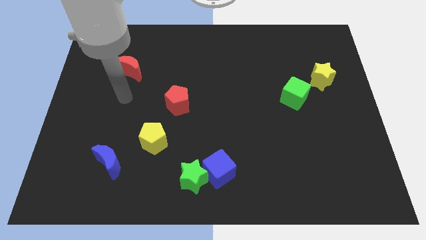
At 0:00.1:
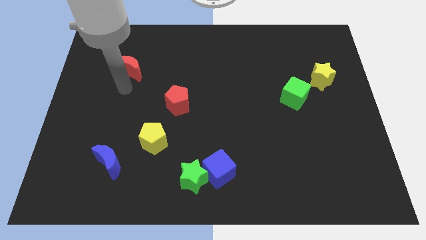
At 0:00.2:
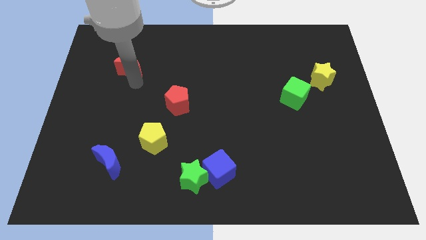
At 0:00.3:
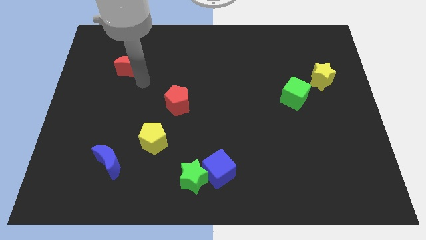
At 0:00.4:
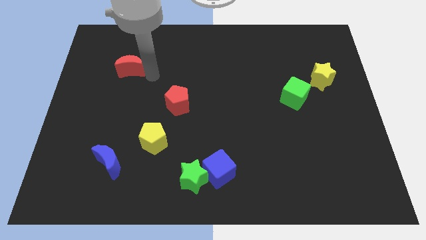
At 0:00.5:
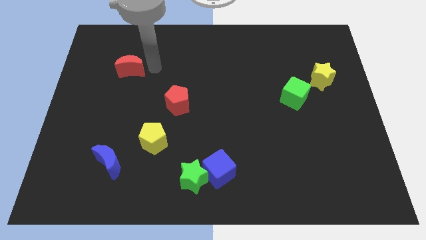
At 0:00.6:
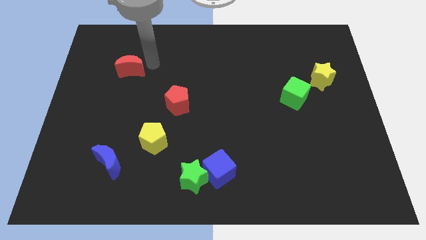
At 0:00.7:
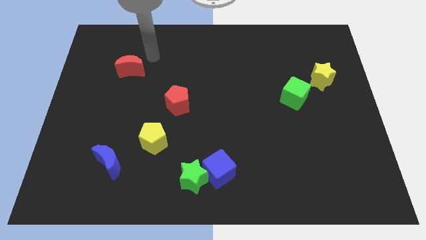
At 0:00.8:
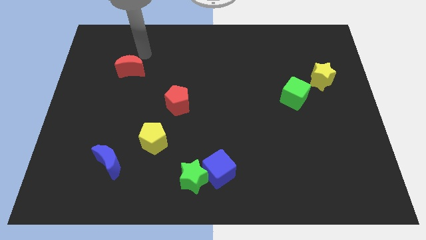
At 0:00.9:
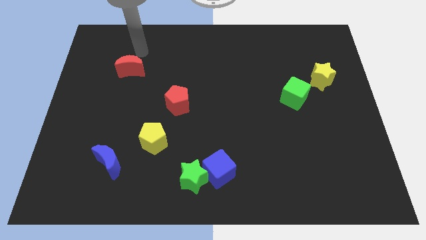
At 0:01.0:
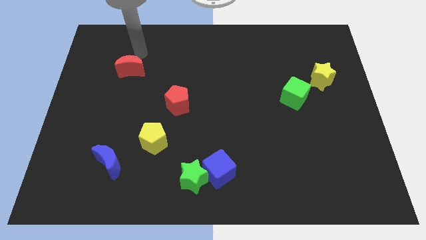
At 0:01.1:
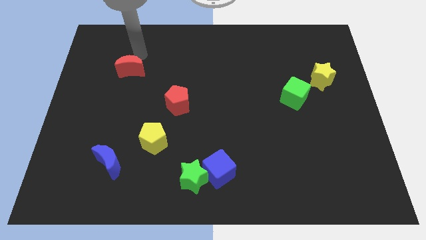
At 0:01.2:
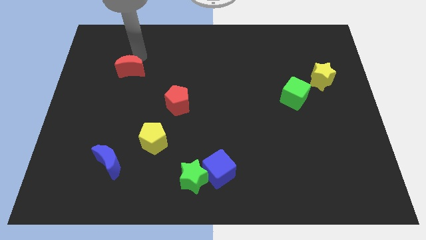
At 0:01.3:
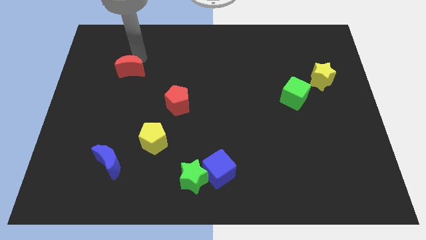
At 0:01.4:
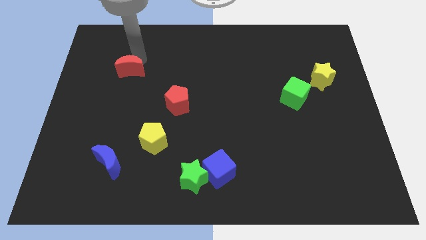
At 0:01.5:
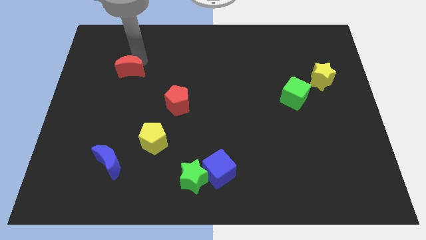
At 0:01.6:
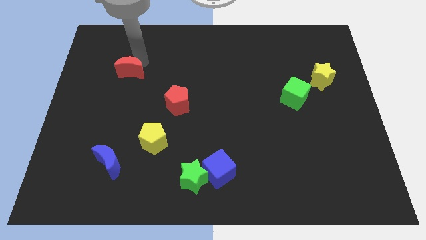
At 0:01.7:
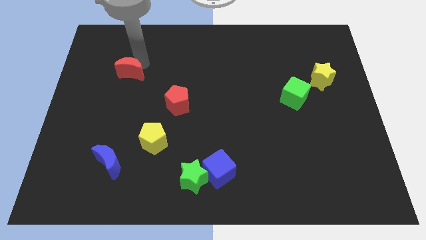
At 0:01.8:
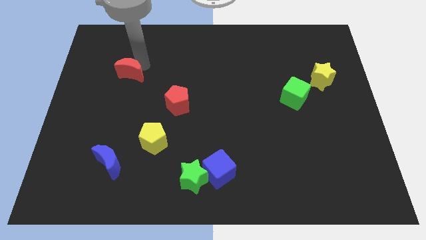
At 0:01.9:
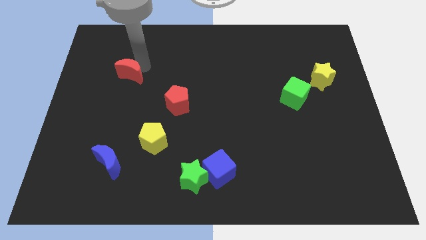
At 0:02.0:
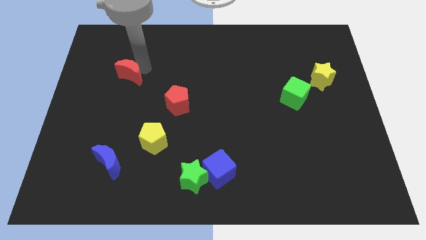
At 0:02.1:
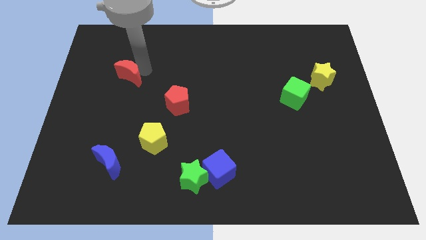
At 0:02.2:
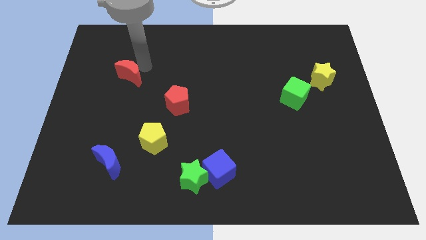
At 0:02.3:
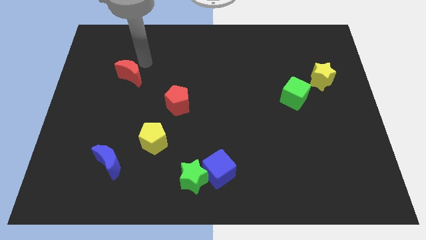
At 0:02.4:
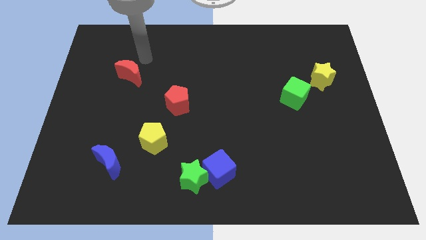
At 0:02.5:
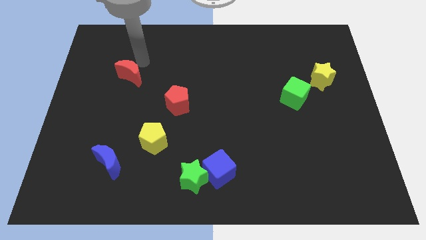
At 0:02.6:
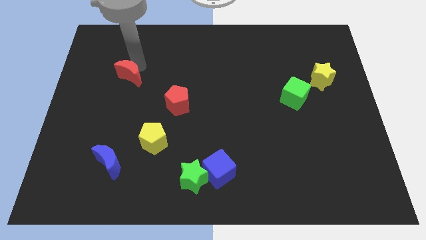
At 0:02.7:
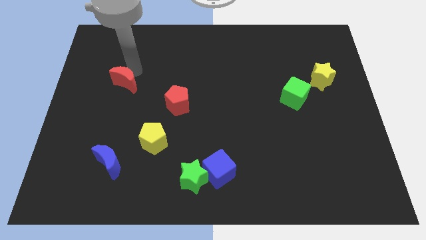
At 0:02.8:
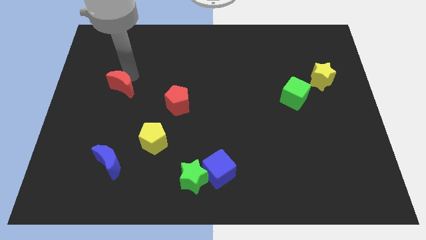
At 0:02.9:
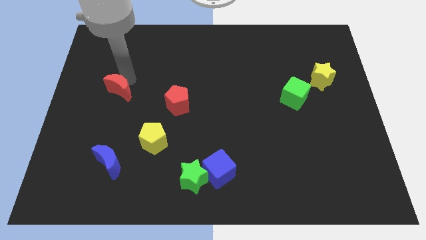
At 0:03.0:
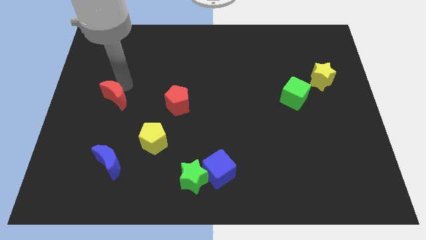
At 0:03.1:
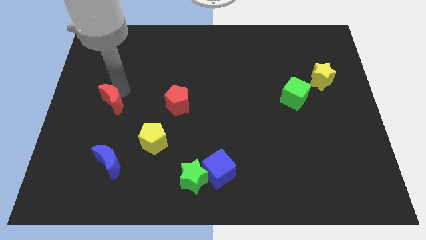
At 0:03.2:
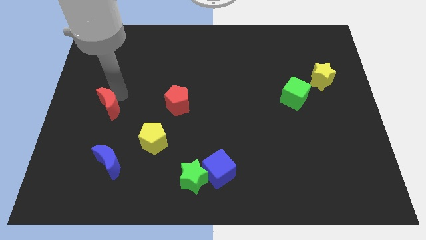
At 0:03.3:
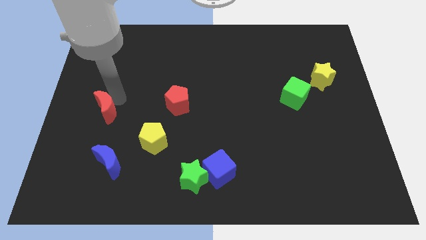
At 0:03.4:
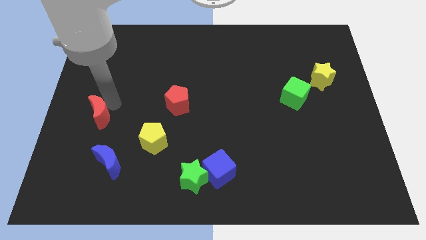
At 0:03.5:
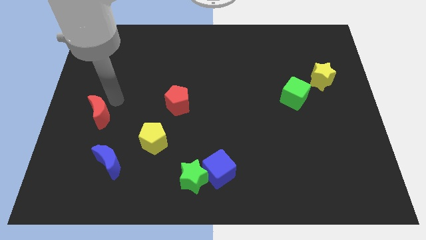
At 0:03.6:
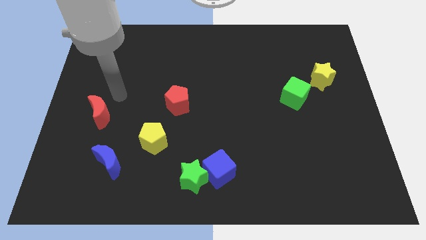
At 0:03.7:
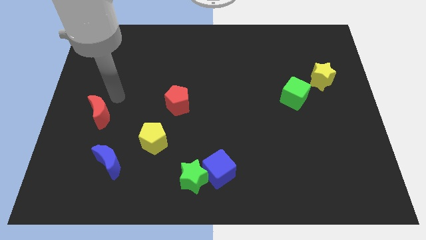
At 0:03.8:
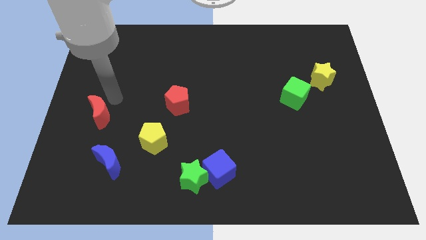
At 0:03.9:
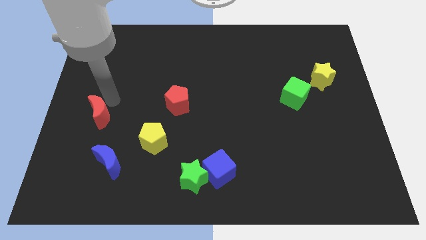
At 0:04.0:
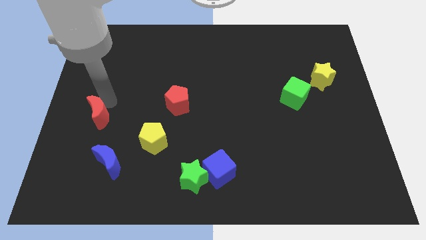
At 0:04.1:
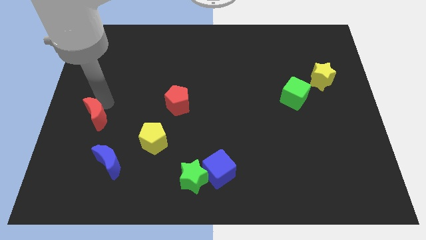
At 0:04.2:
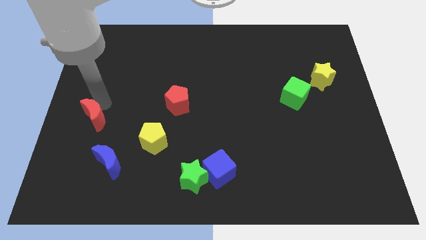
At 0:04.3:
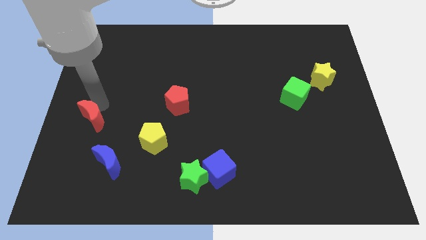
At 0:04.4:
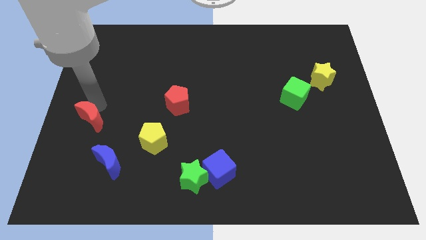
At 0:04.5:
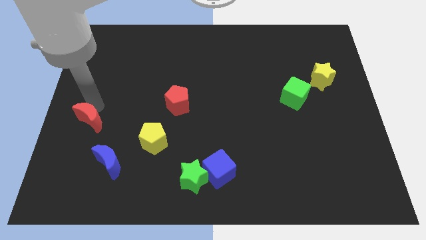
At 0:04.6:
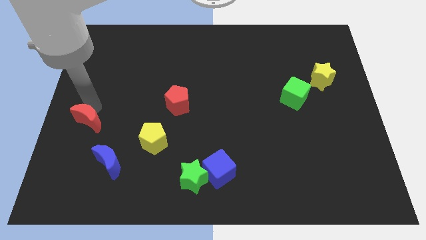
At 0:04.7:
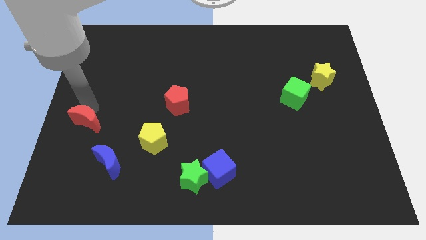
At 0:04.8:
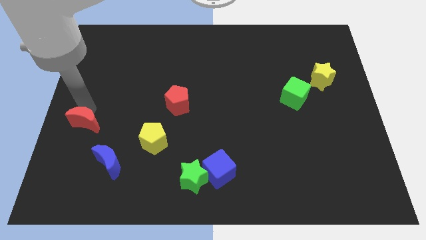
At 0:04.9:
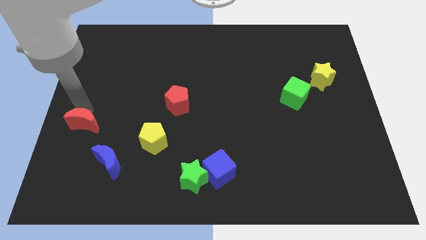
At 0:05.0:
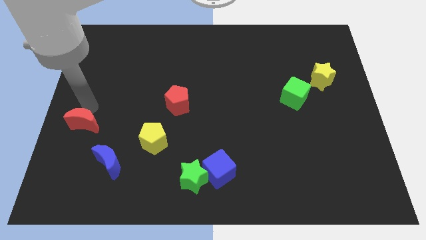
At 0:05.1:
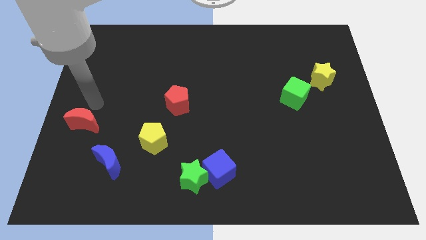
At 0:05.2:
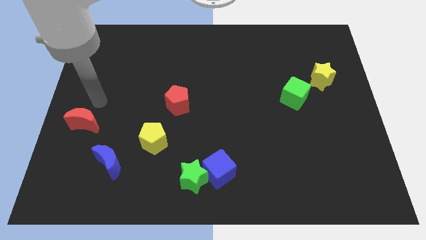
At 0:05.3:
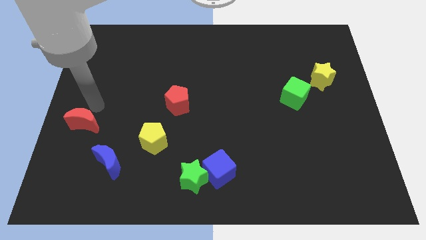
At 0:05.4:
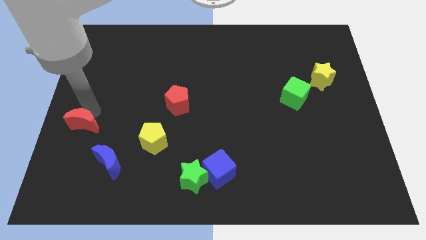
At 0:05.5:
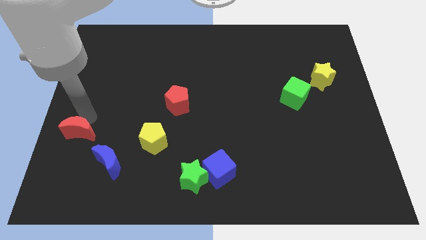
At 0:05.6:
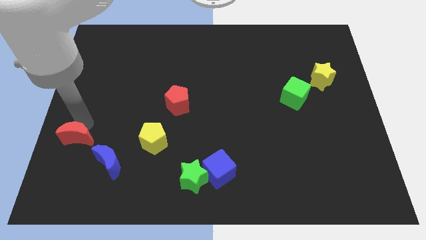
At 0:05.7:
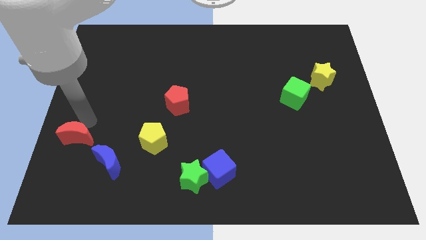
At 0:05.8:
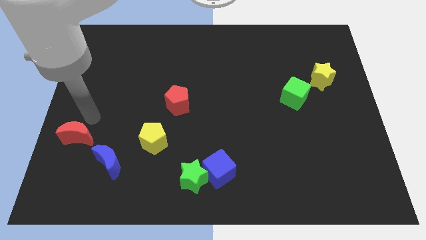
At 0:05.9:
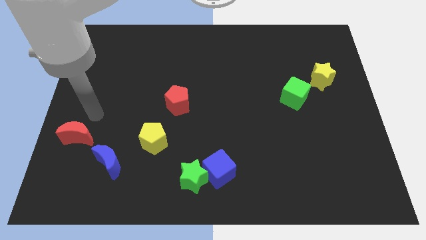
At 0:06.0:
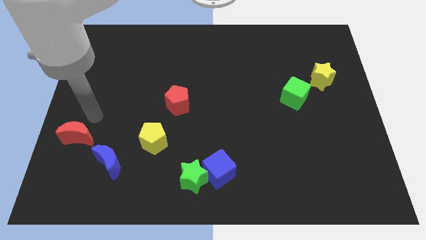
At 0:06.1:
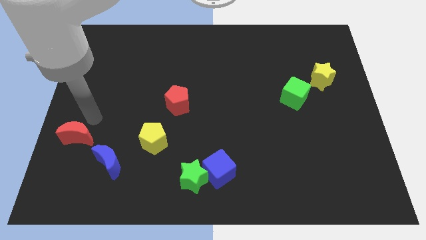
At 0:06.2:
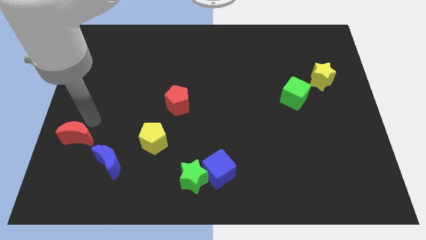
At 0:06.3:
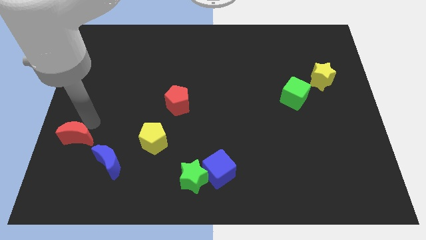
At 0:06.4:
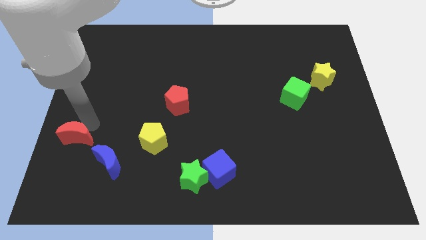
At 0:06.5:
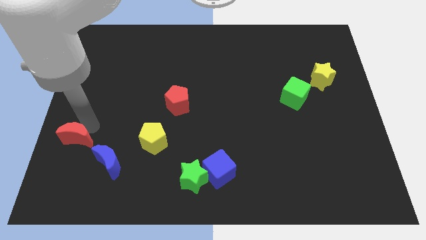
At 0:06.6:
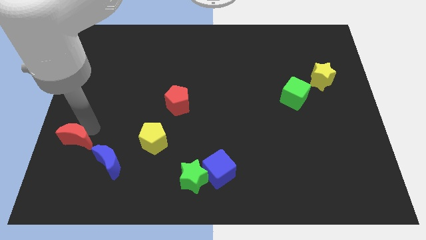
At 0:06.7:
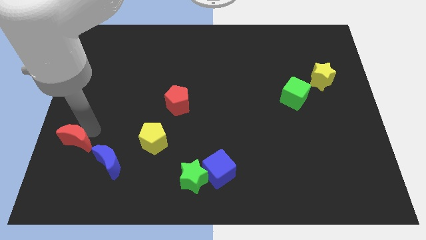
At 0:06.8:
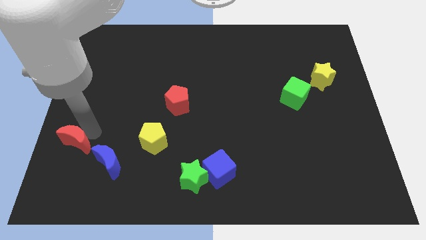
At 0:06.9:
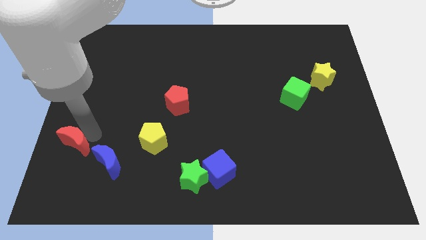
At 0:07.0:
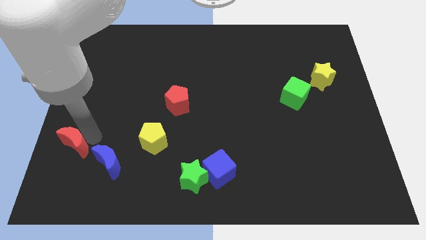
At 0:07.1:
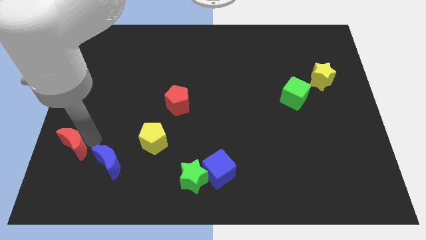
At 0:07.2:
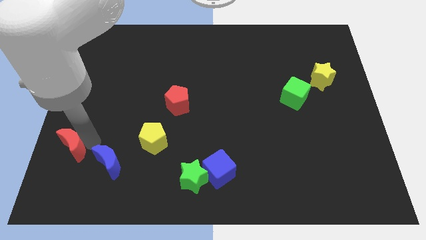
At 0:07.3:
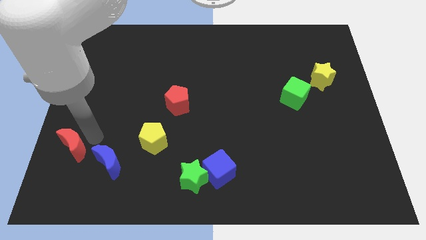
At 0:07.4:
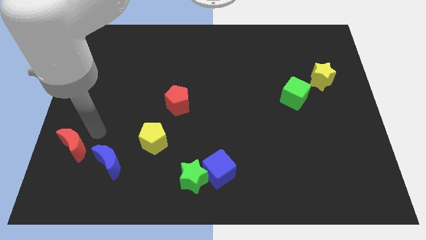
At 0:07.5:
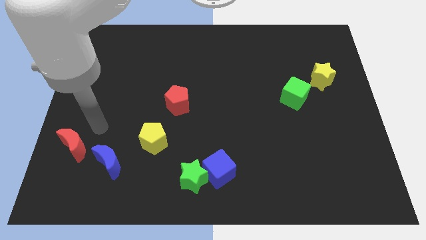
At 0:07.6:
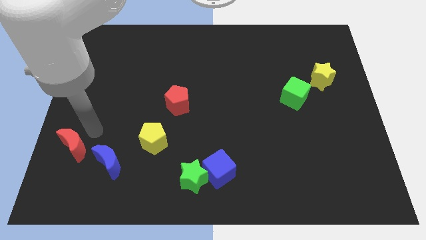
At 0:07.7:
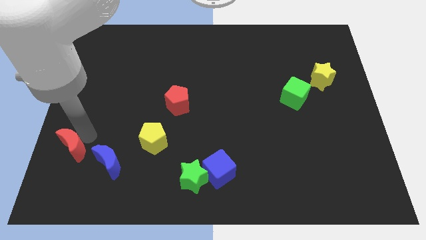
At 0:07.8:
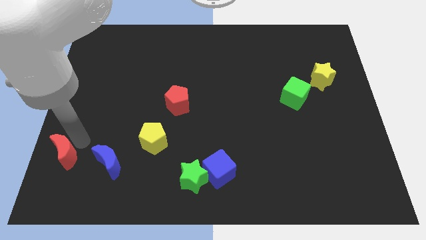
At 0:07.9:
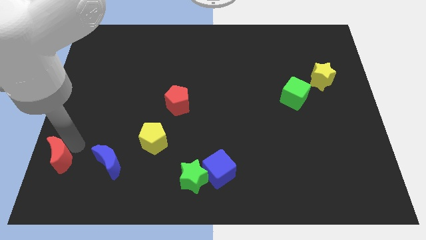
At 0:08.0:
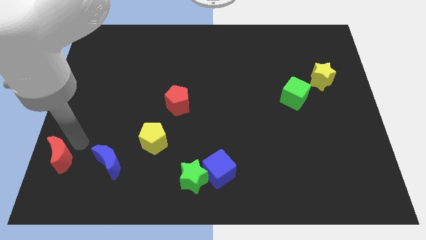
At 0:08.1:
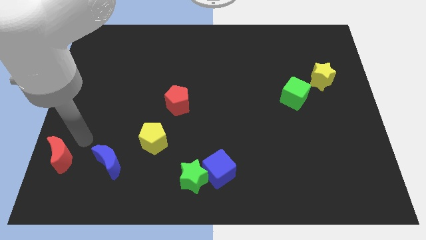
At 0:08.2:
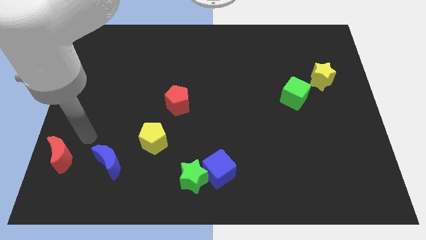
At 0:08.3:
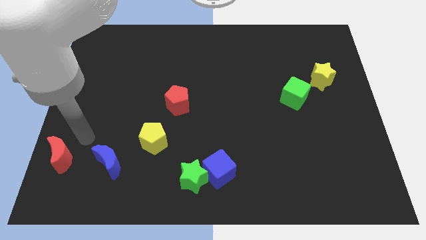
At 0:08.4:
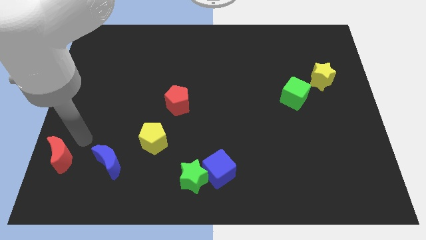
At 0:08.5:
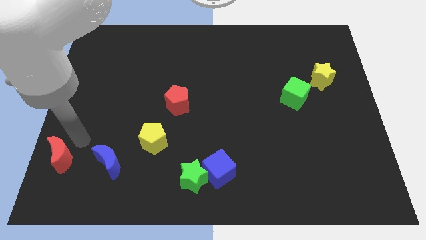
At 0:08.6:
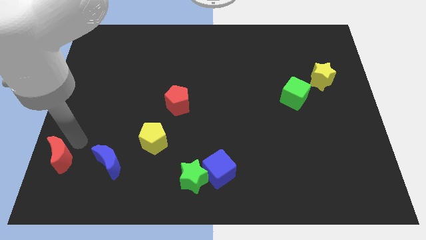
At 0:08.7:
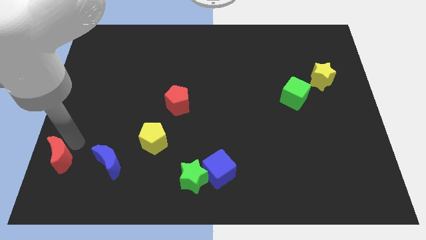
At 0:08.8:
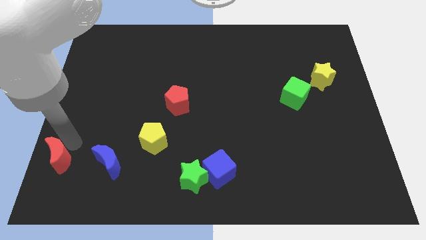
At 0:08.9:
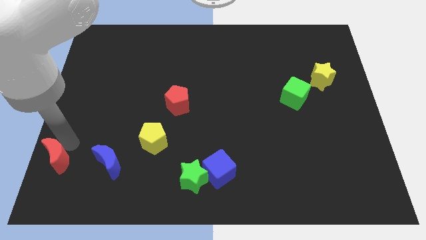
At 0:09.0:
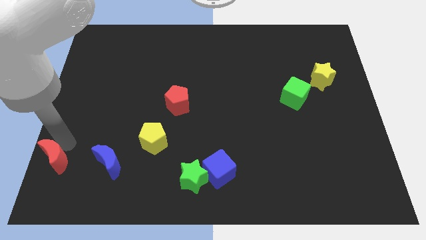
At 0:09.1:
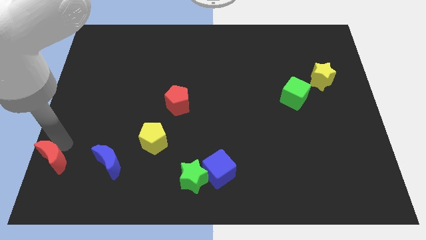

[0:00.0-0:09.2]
push the red moon to the bottom left of the board
